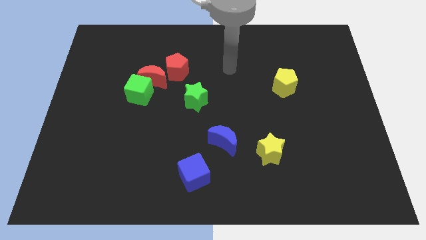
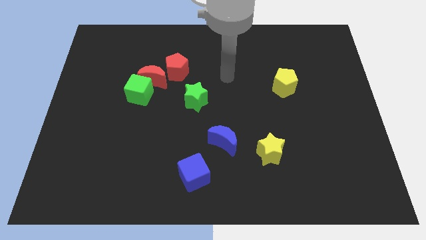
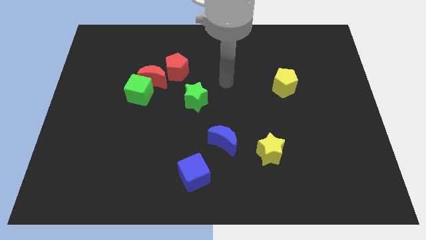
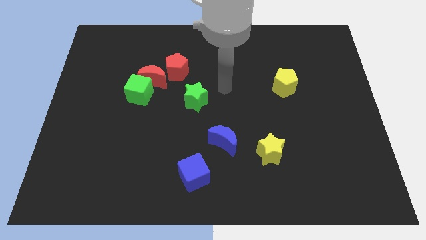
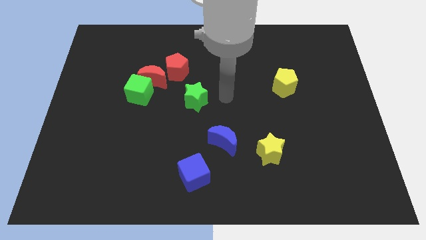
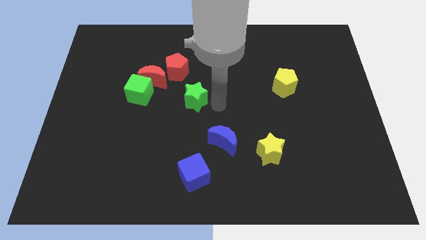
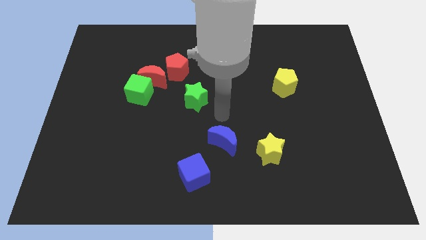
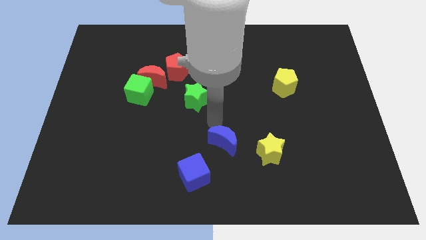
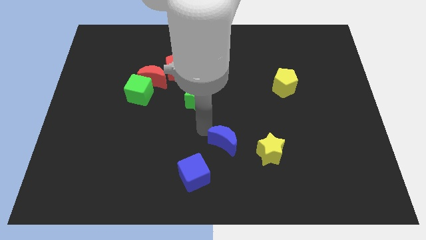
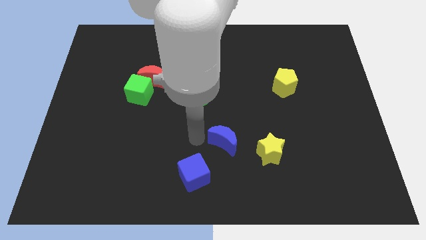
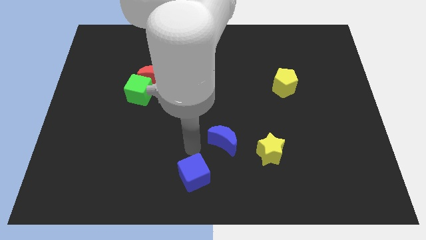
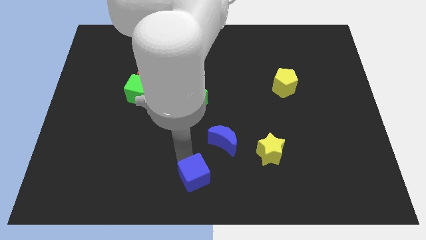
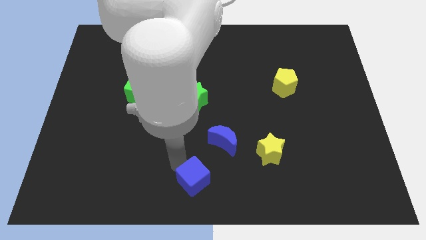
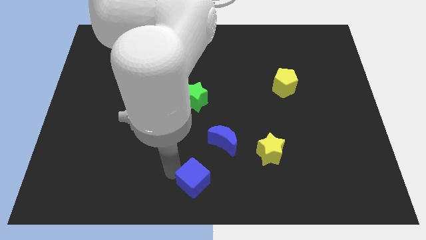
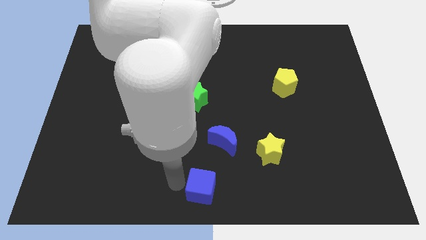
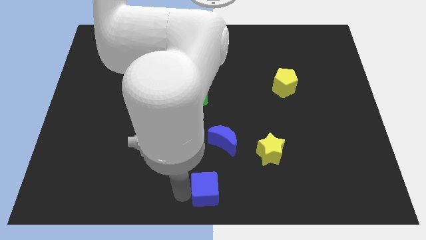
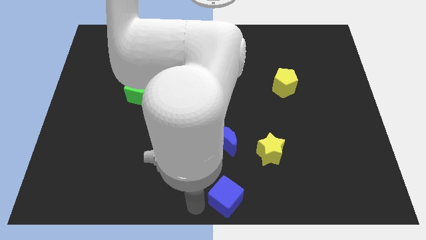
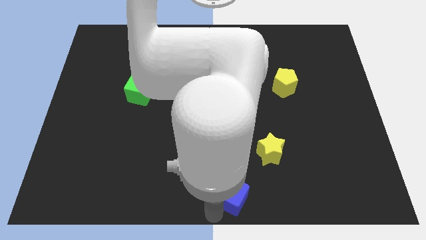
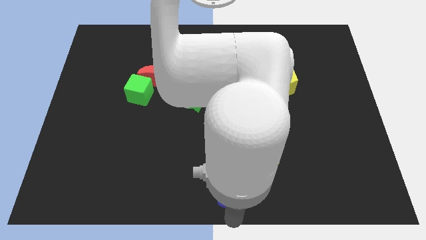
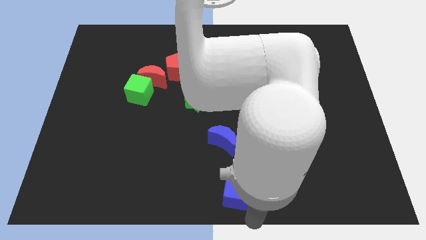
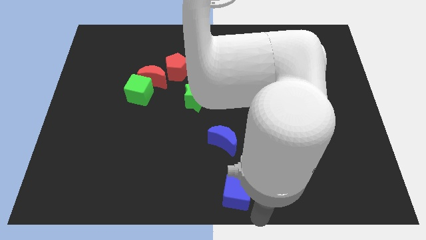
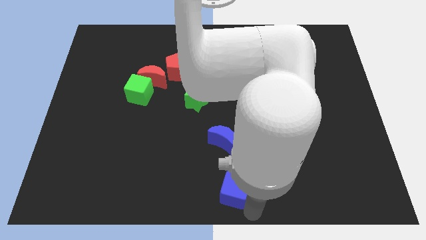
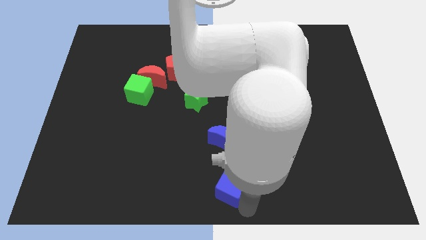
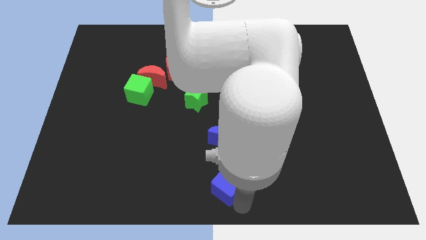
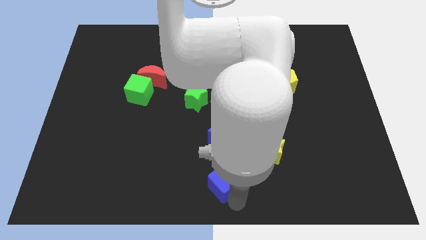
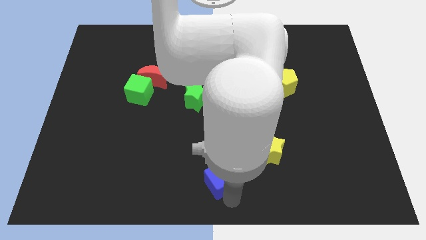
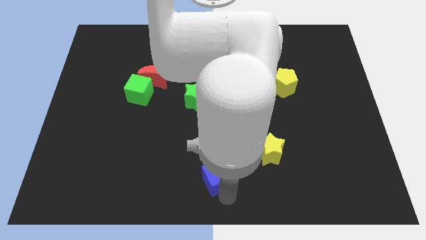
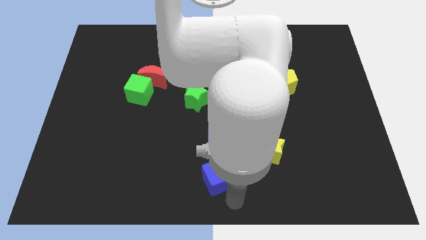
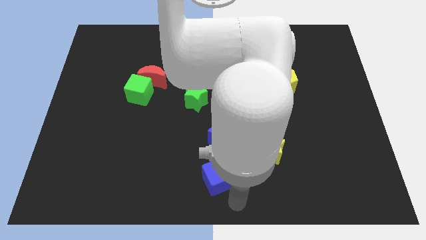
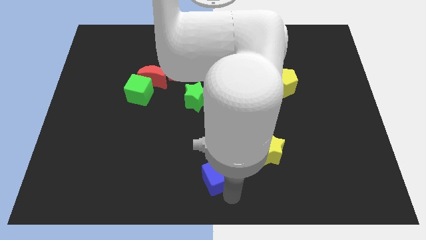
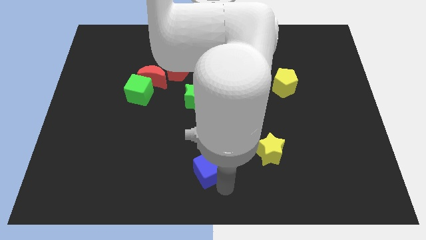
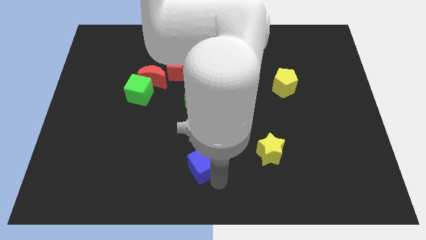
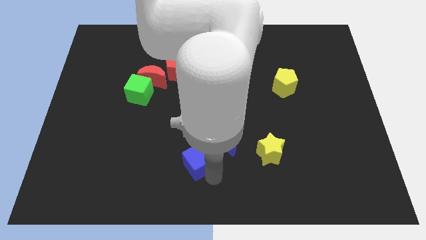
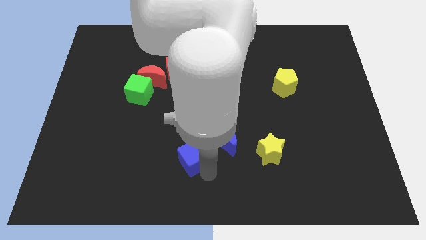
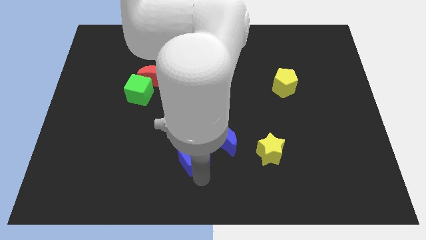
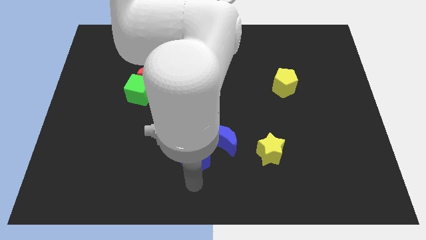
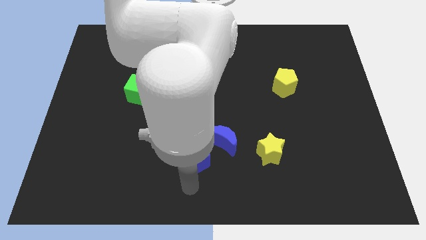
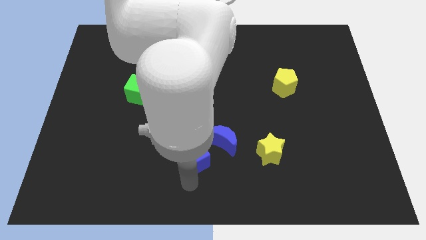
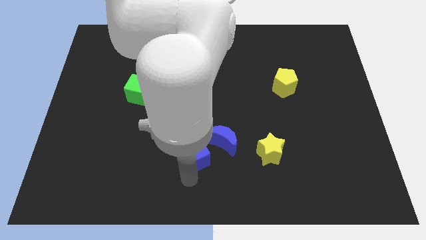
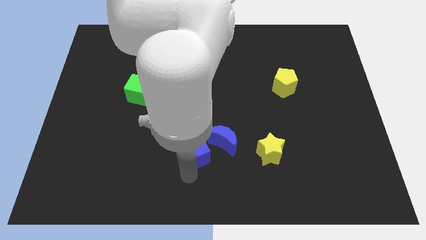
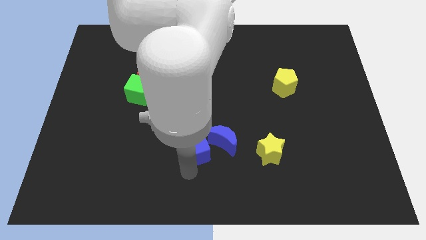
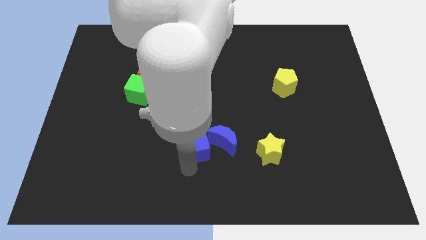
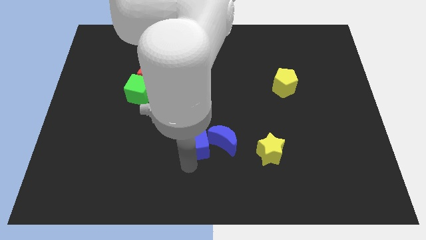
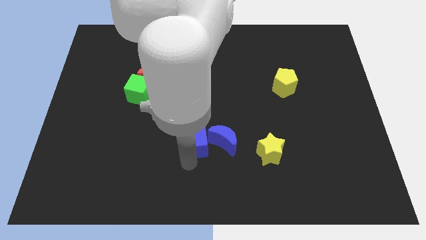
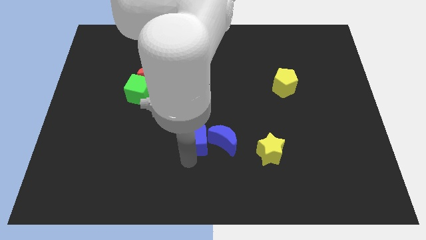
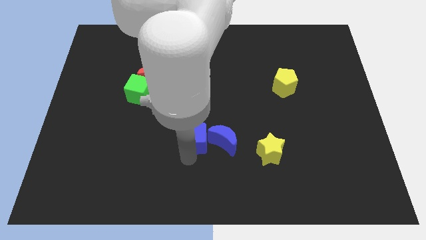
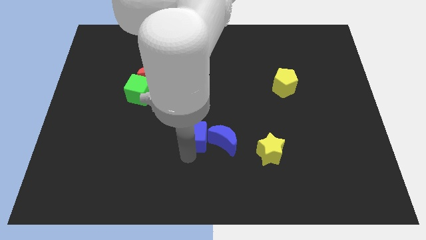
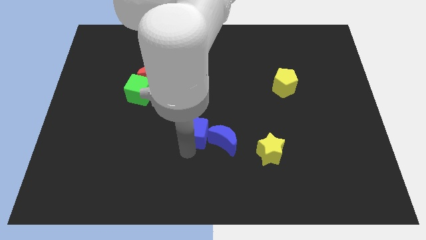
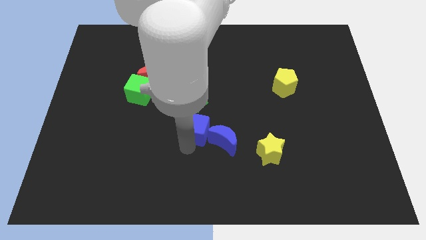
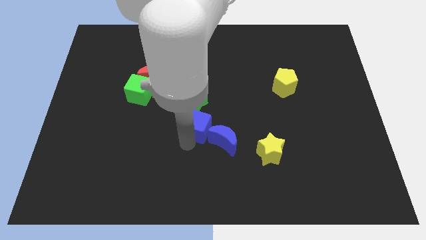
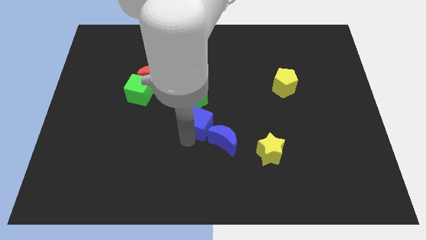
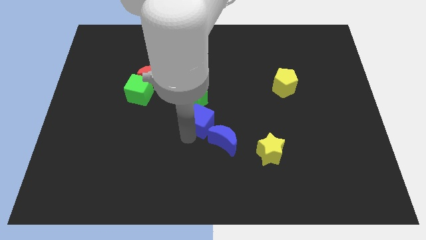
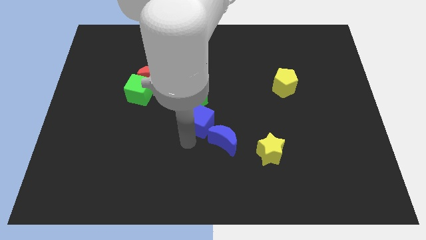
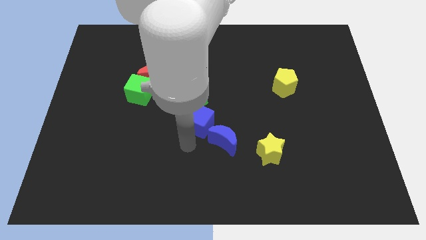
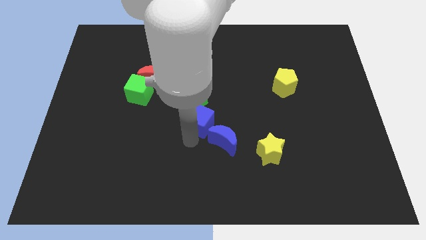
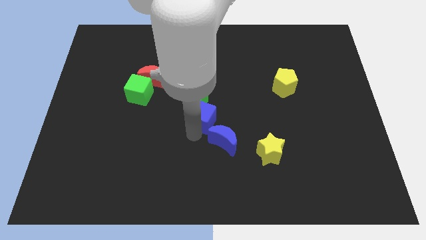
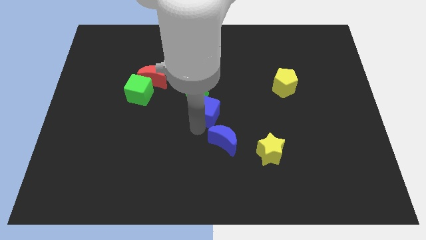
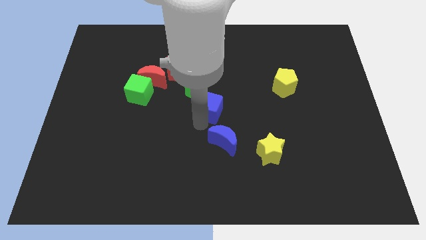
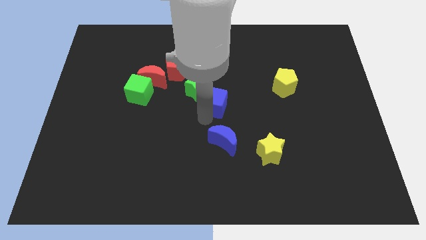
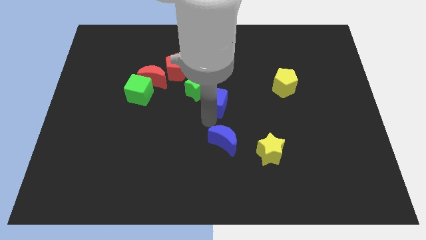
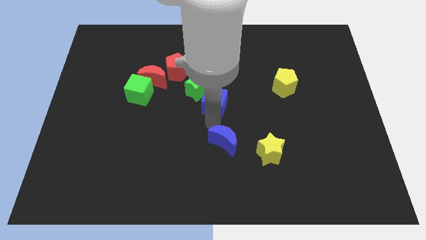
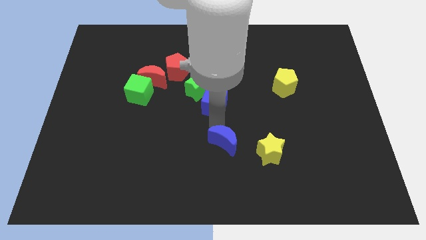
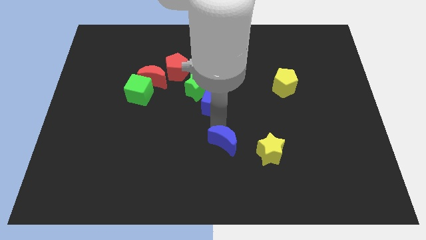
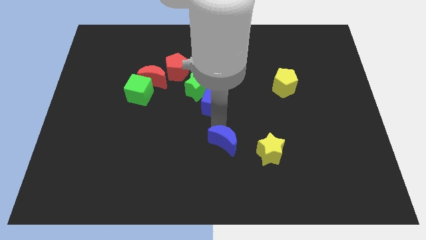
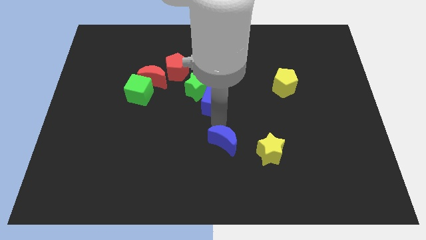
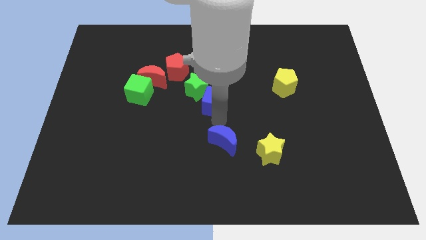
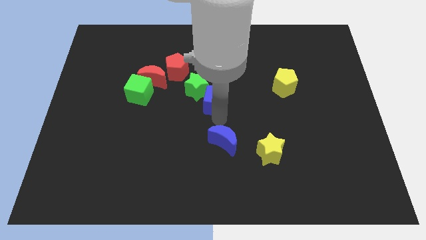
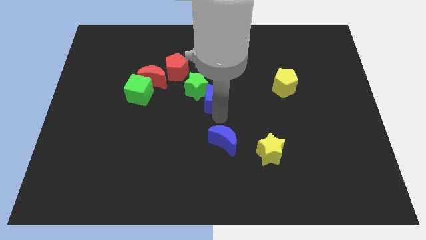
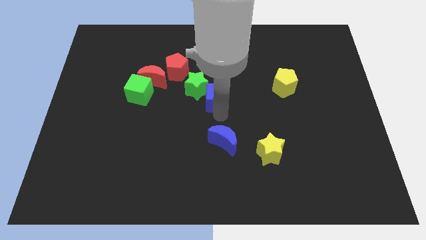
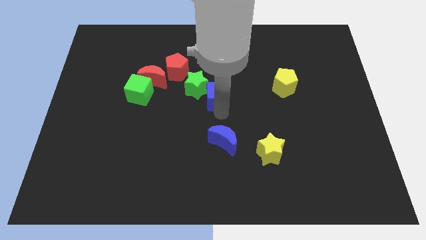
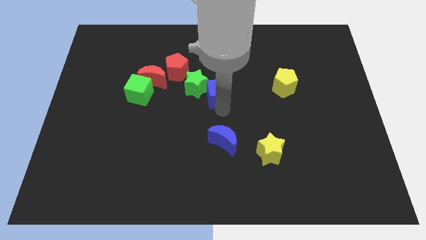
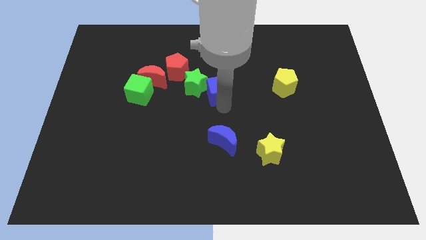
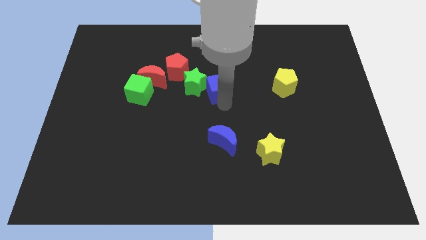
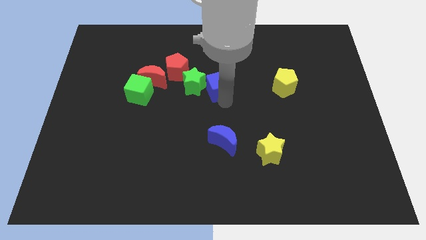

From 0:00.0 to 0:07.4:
slide the blue cube to the bottom right side of the red pentagon

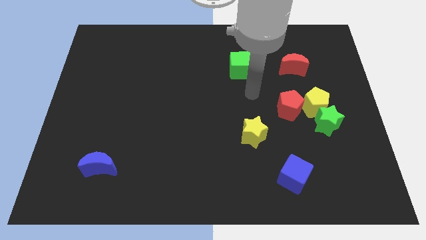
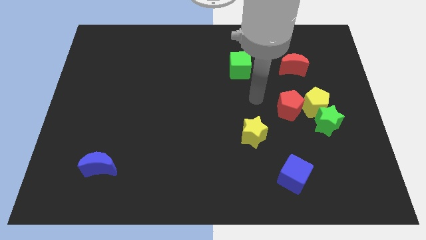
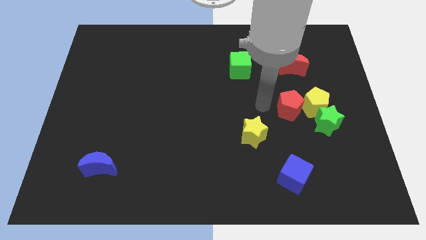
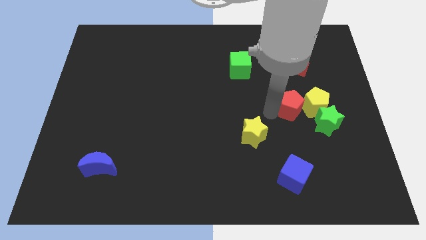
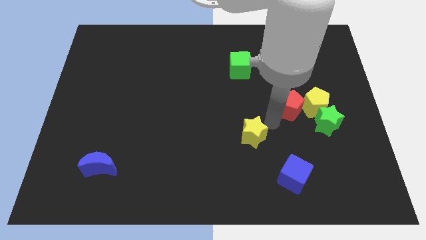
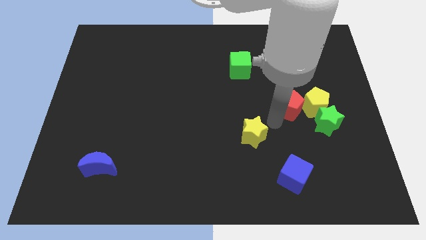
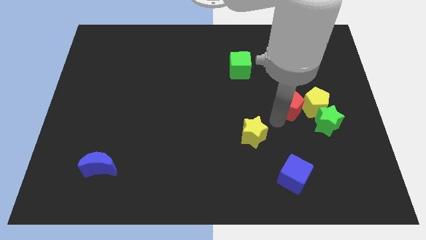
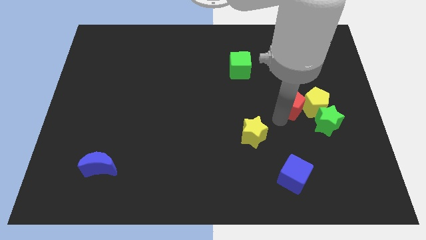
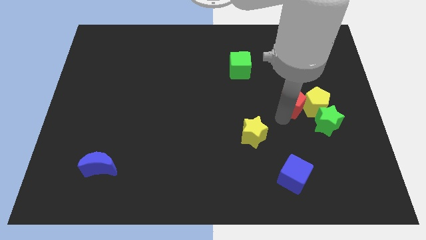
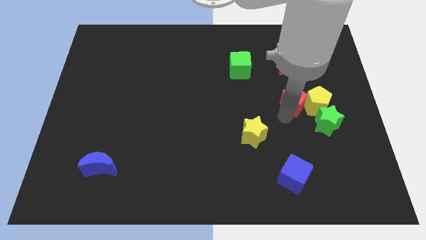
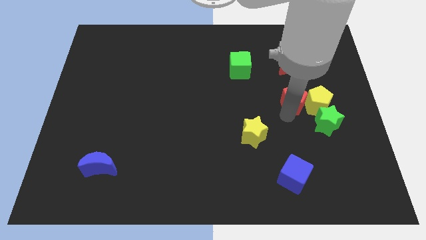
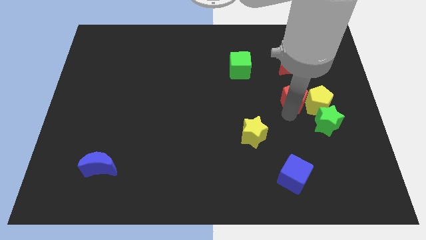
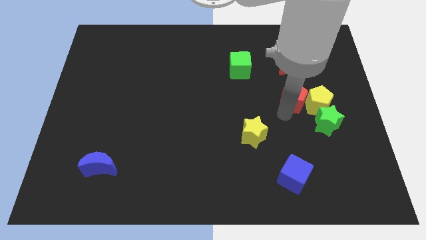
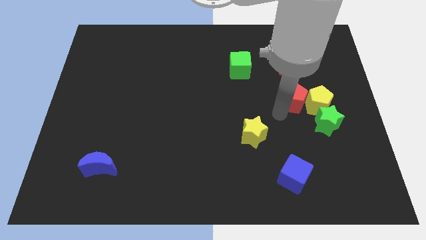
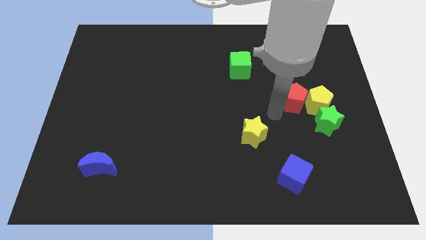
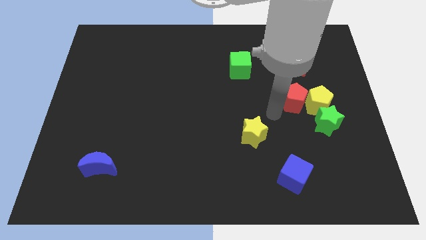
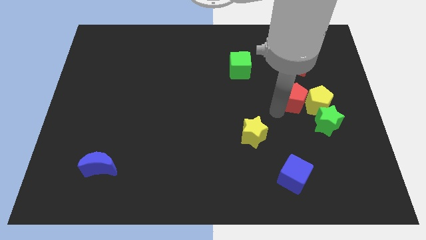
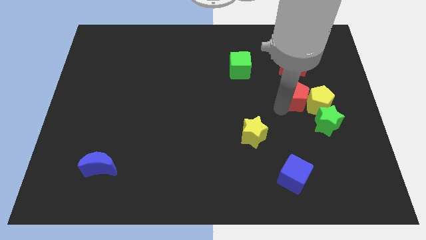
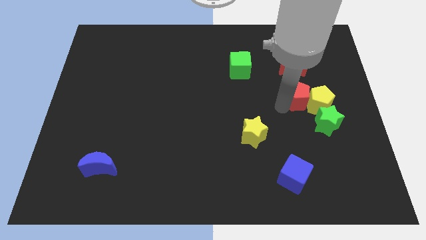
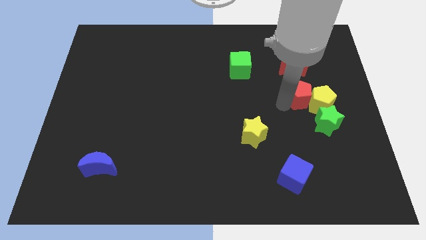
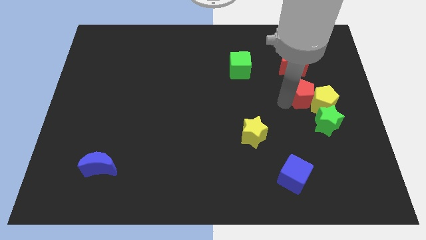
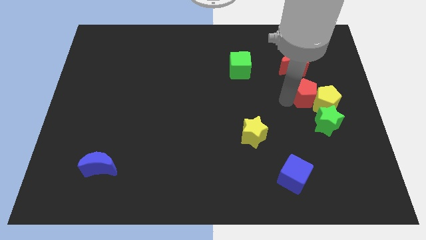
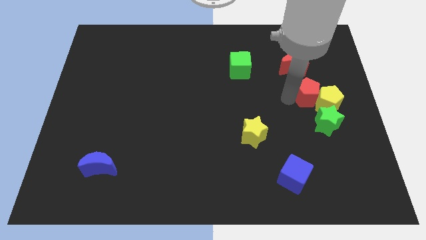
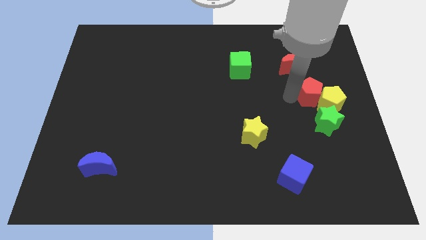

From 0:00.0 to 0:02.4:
push the red pentagon to the bottom right side of the red moon
